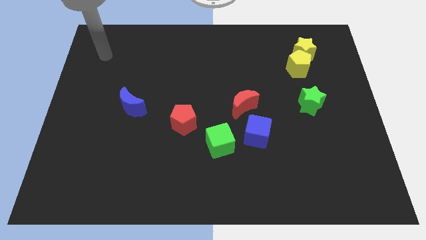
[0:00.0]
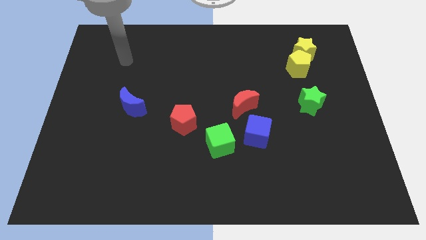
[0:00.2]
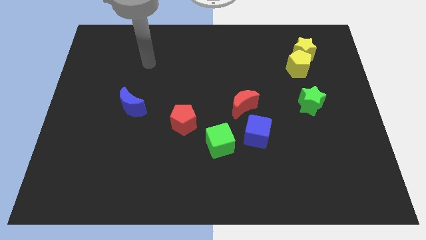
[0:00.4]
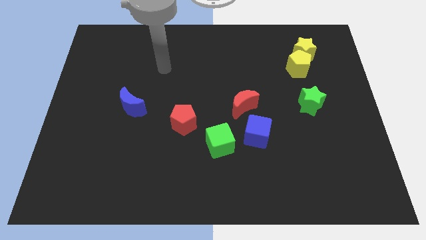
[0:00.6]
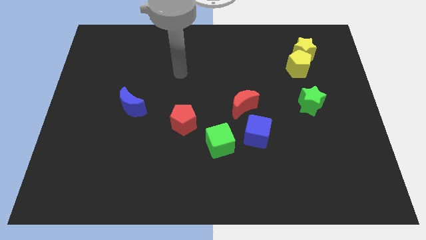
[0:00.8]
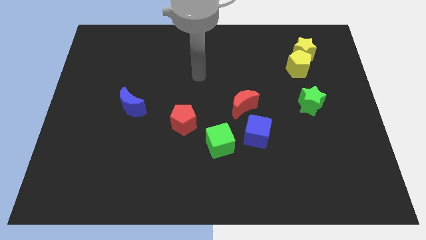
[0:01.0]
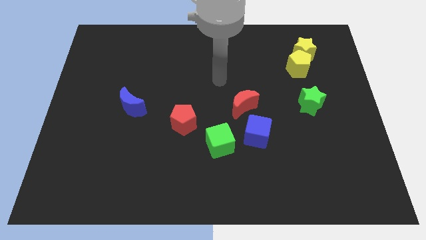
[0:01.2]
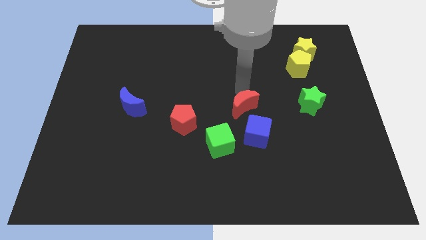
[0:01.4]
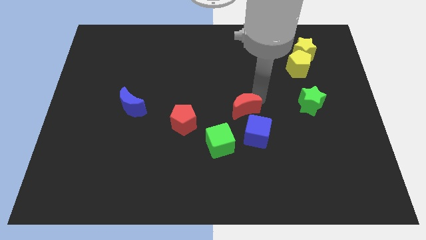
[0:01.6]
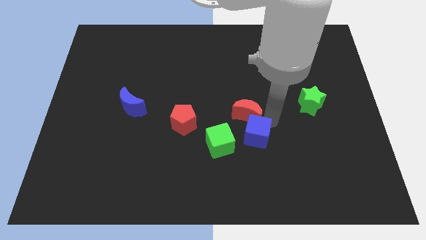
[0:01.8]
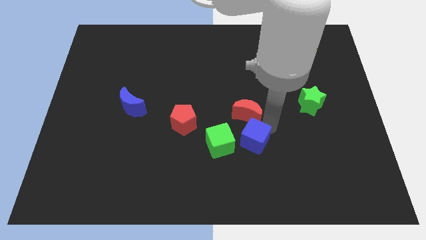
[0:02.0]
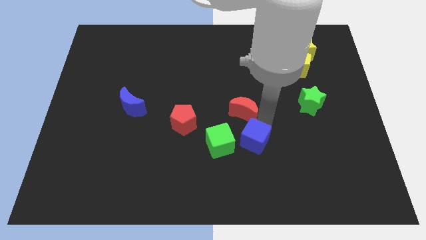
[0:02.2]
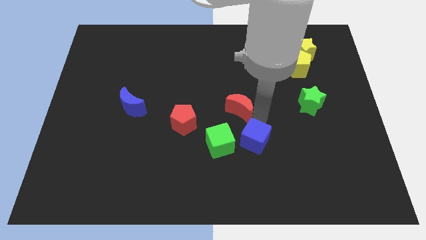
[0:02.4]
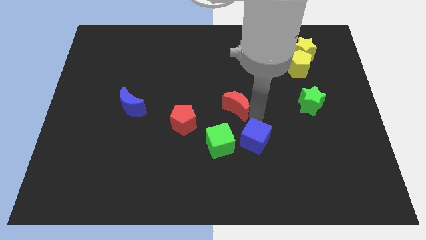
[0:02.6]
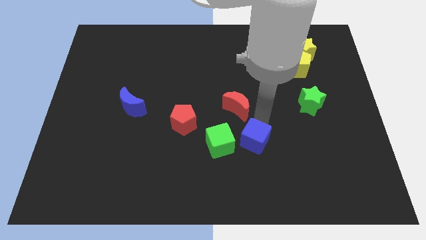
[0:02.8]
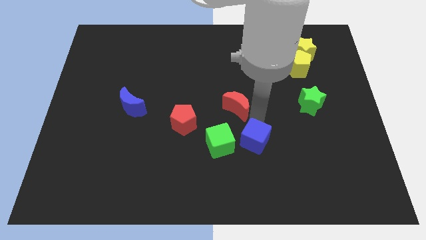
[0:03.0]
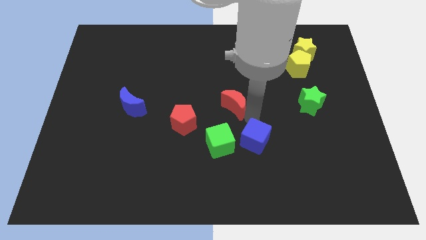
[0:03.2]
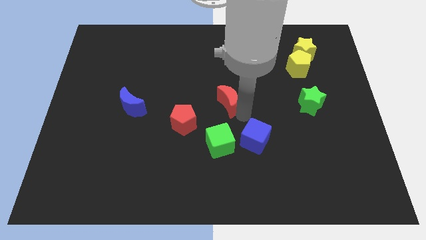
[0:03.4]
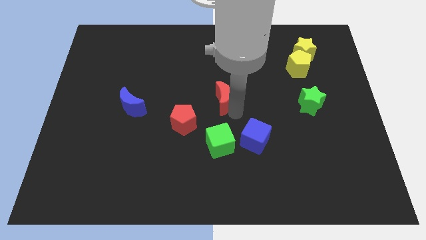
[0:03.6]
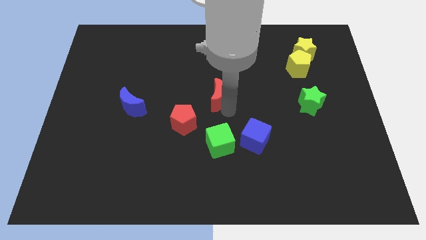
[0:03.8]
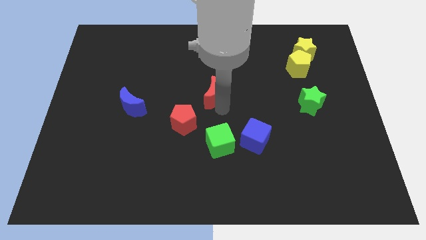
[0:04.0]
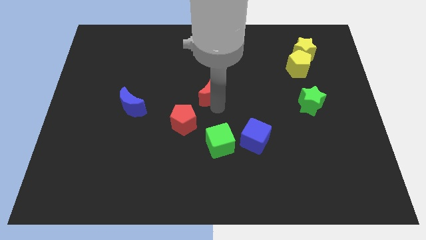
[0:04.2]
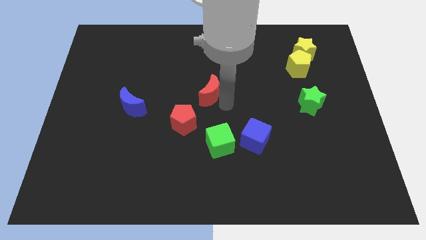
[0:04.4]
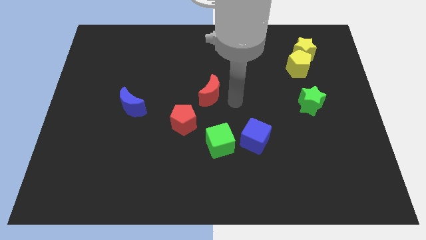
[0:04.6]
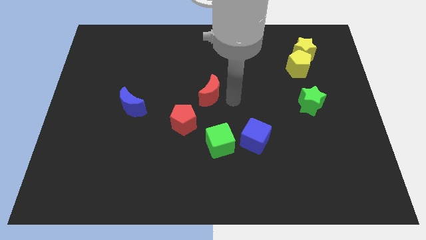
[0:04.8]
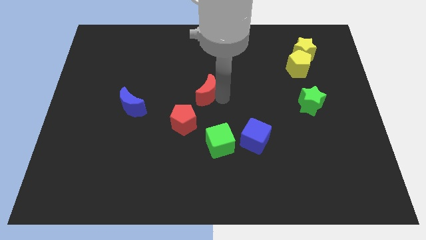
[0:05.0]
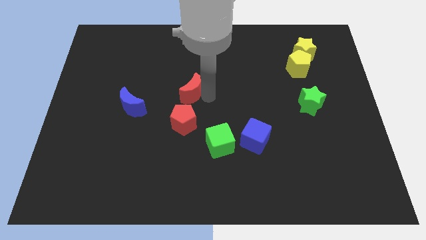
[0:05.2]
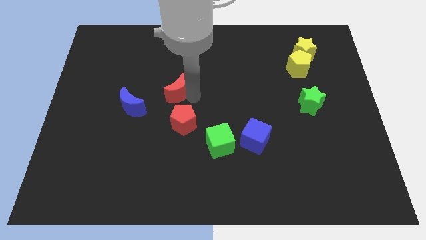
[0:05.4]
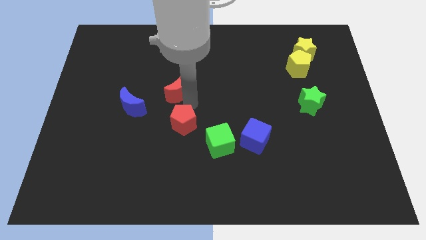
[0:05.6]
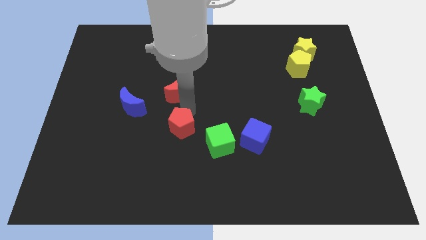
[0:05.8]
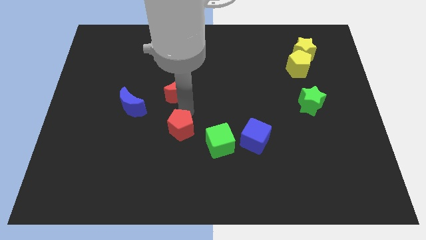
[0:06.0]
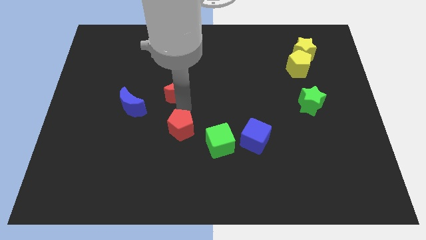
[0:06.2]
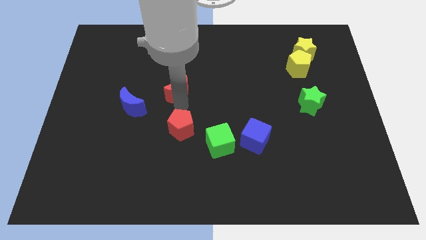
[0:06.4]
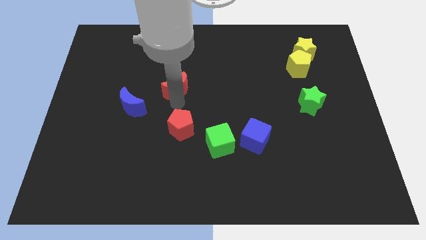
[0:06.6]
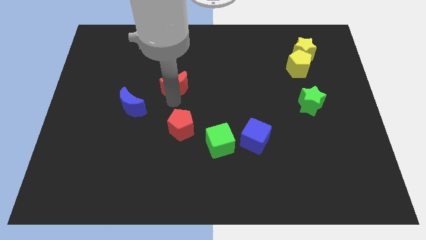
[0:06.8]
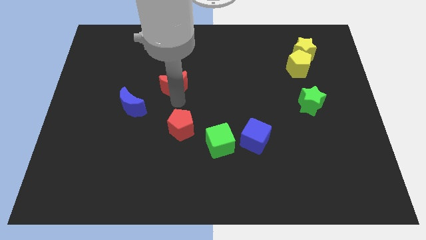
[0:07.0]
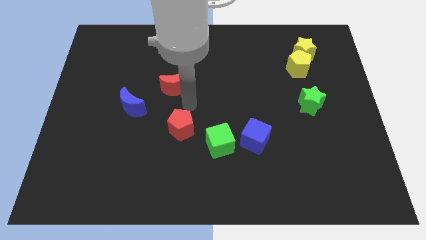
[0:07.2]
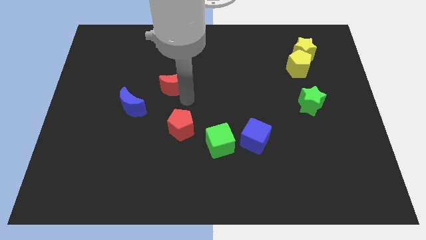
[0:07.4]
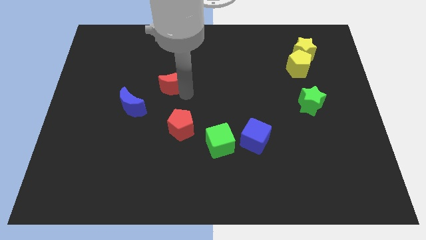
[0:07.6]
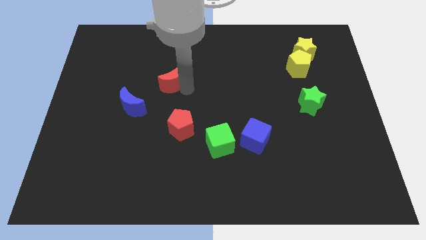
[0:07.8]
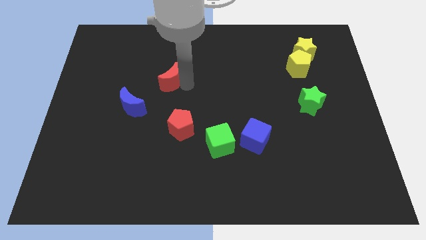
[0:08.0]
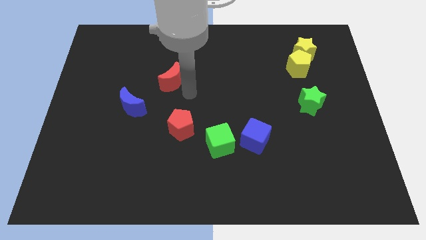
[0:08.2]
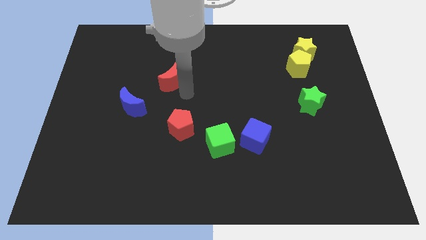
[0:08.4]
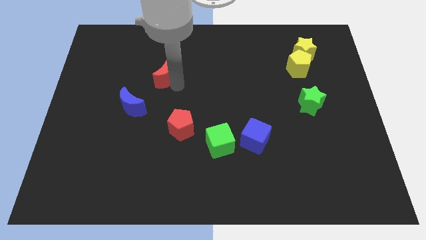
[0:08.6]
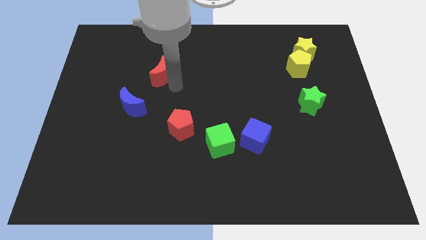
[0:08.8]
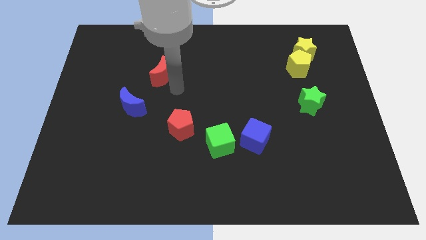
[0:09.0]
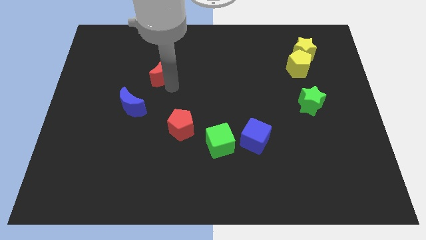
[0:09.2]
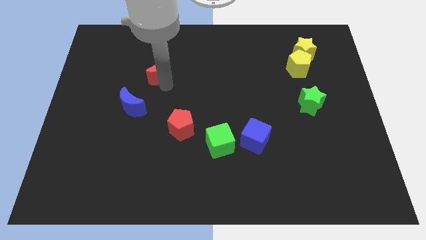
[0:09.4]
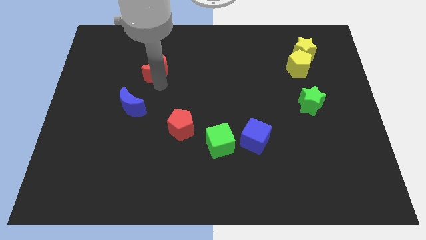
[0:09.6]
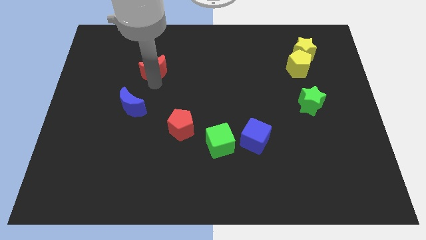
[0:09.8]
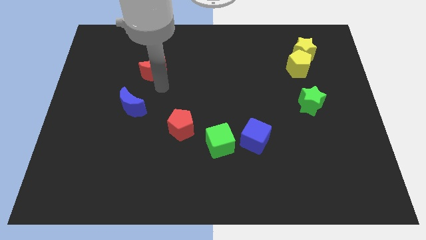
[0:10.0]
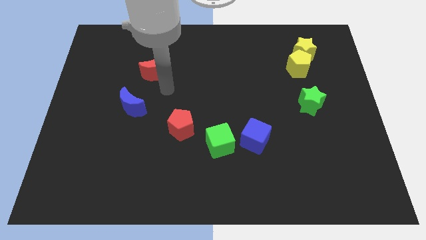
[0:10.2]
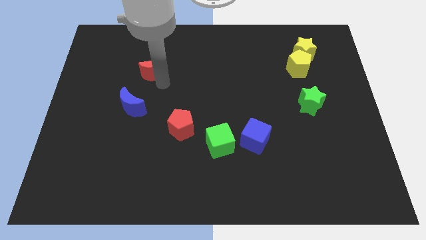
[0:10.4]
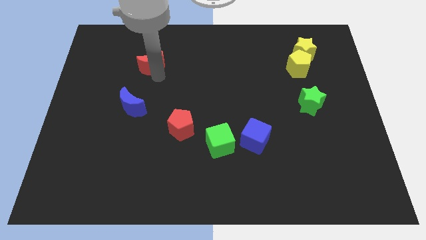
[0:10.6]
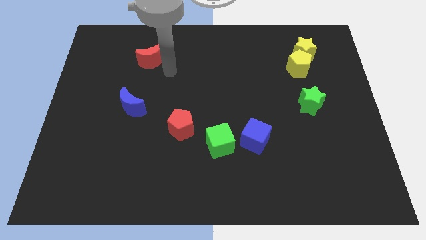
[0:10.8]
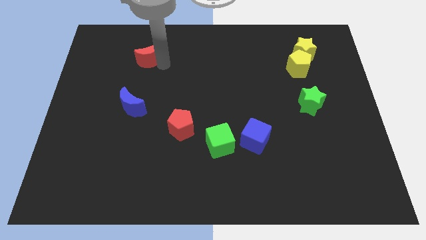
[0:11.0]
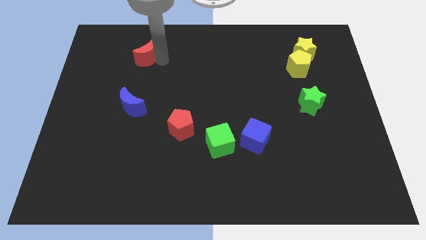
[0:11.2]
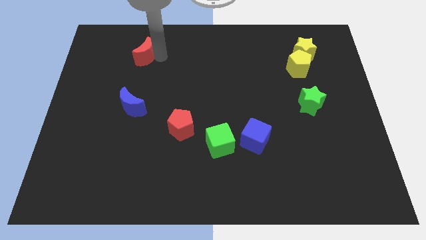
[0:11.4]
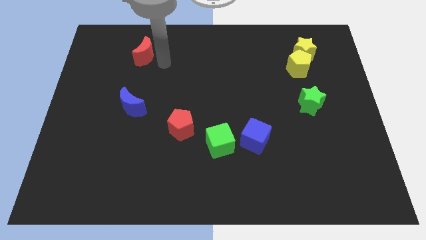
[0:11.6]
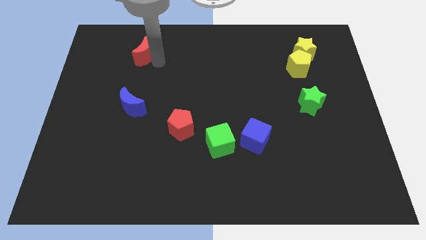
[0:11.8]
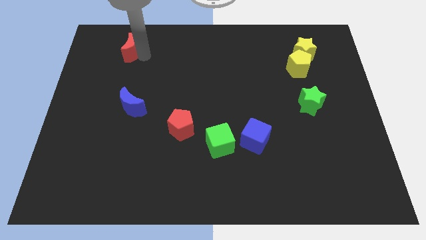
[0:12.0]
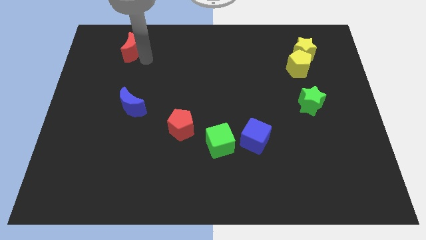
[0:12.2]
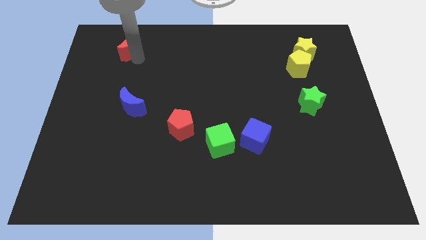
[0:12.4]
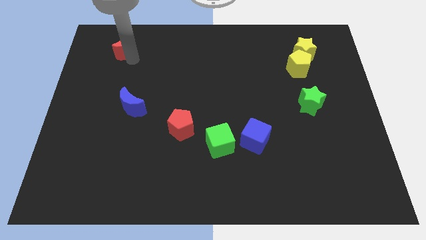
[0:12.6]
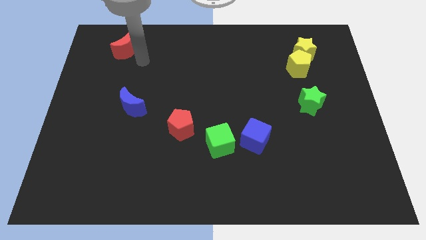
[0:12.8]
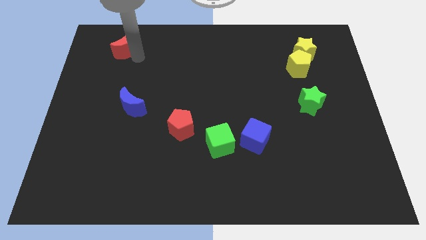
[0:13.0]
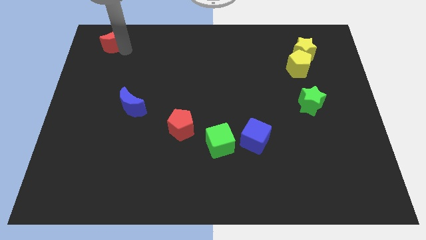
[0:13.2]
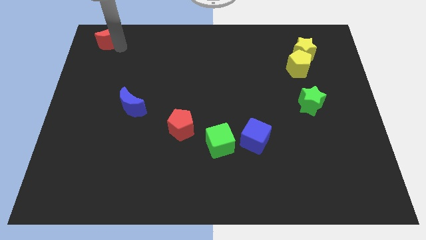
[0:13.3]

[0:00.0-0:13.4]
move the red moon to the top left of the board
